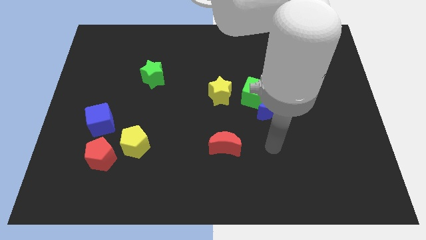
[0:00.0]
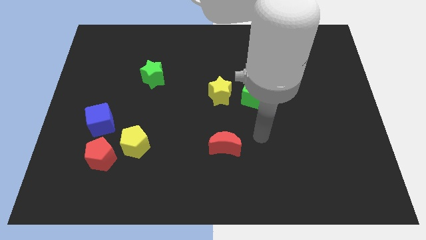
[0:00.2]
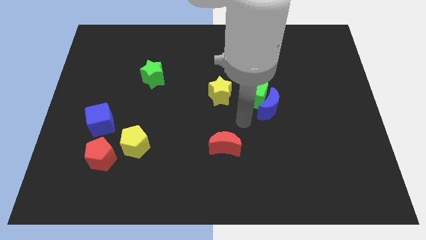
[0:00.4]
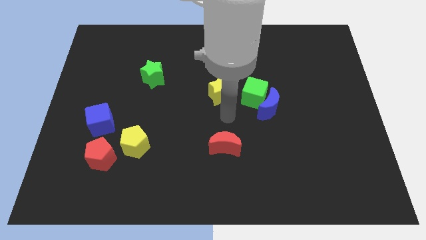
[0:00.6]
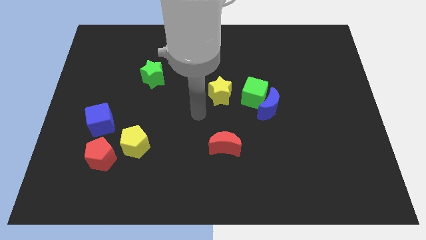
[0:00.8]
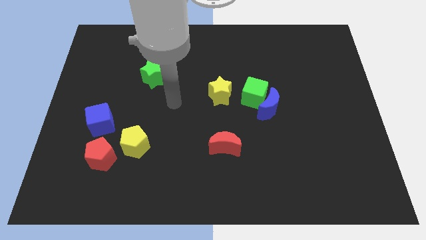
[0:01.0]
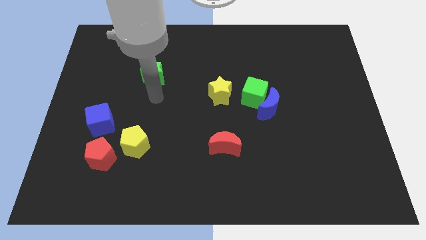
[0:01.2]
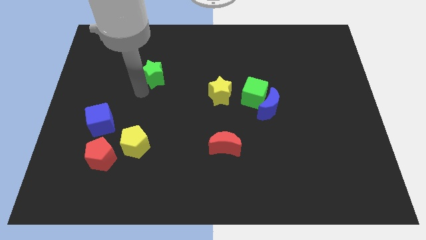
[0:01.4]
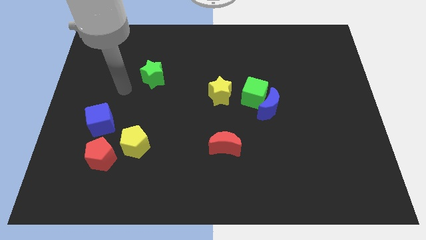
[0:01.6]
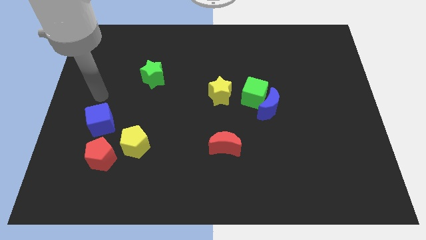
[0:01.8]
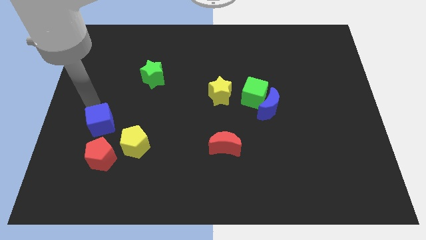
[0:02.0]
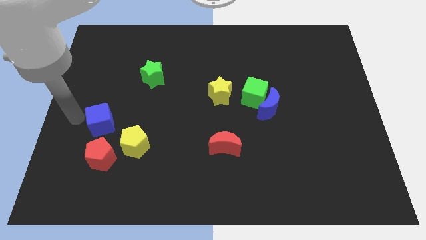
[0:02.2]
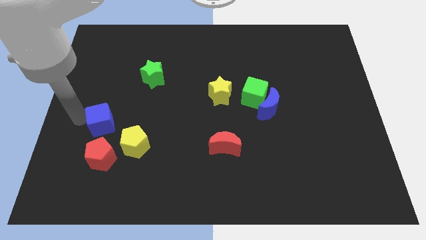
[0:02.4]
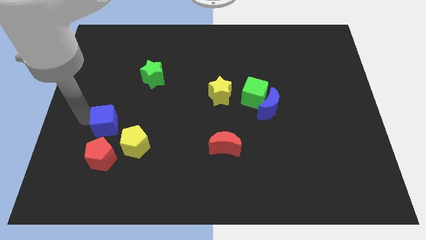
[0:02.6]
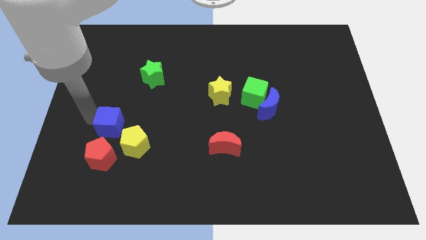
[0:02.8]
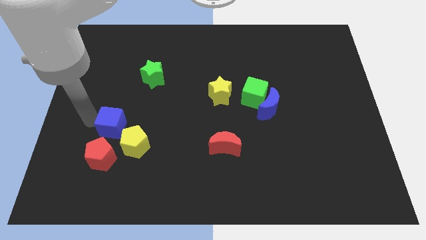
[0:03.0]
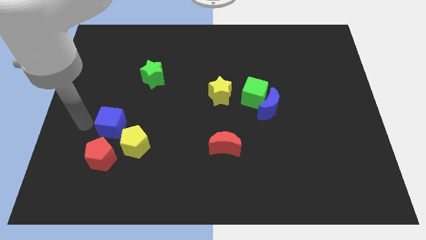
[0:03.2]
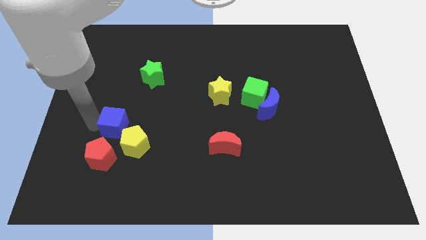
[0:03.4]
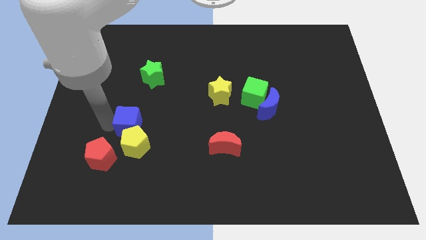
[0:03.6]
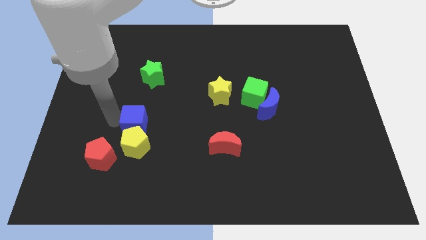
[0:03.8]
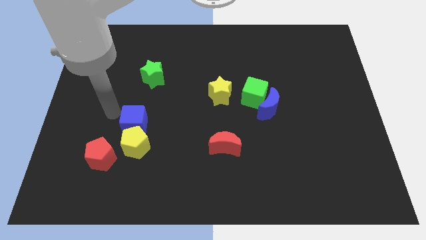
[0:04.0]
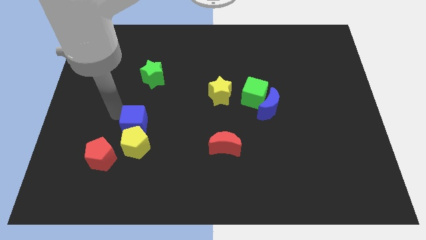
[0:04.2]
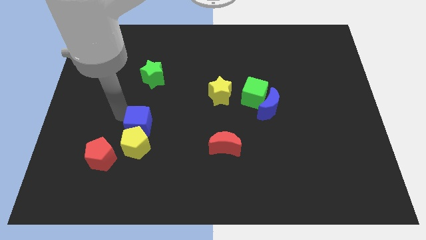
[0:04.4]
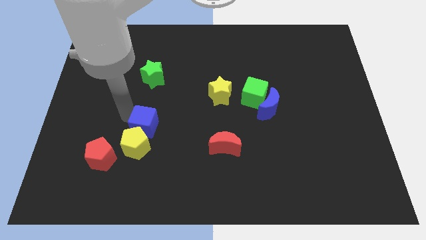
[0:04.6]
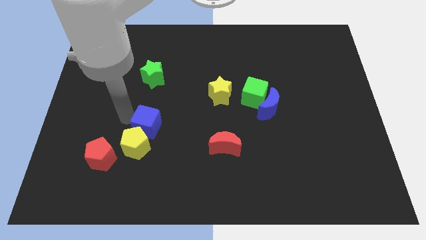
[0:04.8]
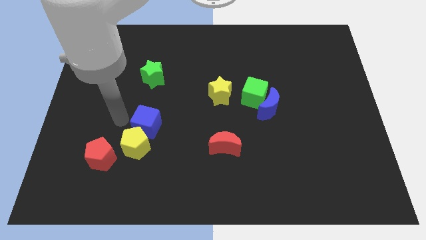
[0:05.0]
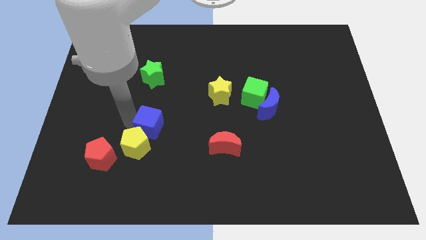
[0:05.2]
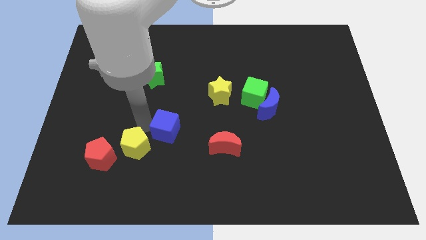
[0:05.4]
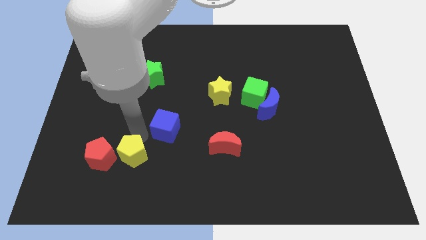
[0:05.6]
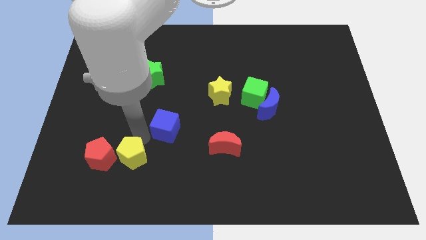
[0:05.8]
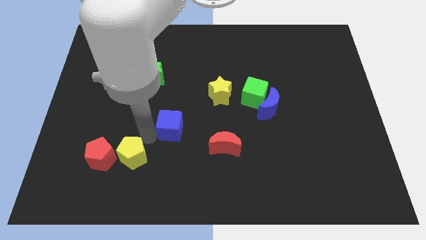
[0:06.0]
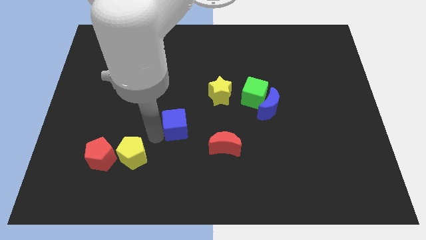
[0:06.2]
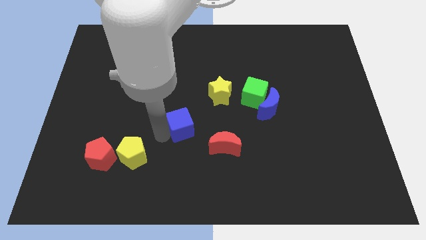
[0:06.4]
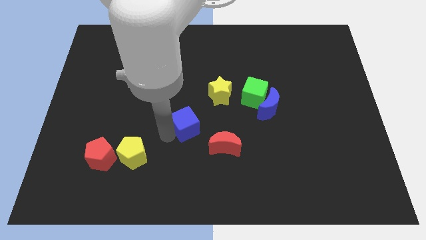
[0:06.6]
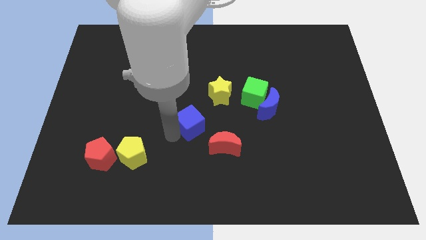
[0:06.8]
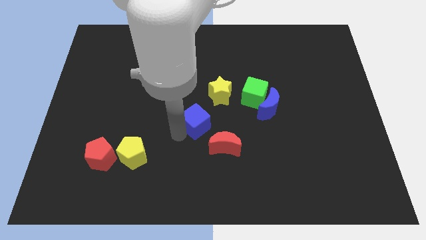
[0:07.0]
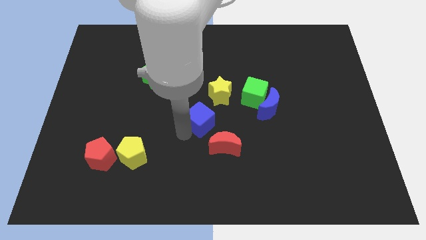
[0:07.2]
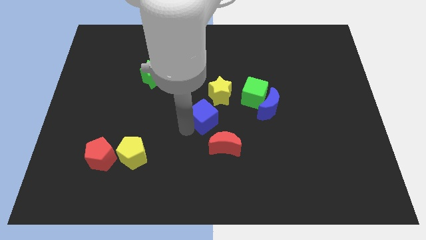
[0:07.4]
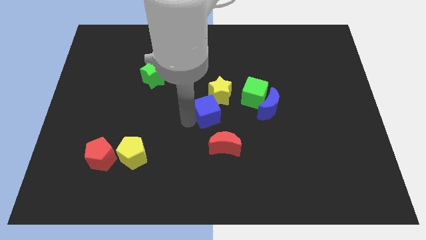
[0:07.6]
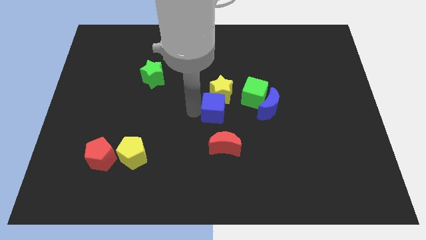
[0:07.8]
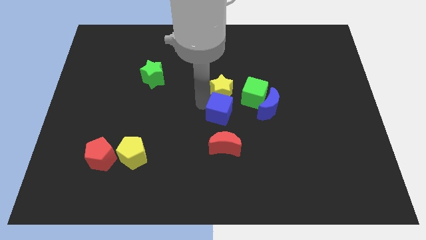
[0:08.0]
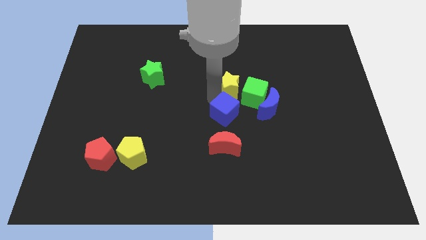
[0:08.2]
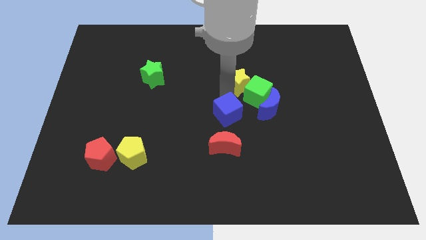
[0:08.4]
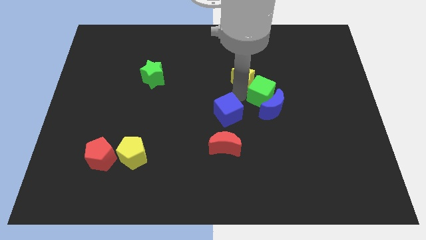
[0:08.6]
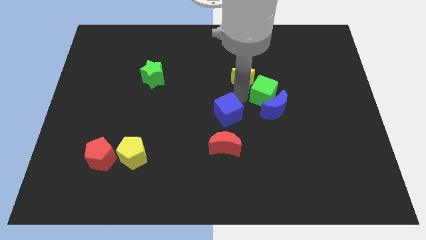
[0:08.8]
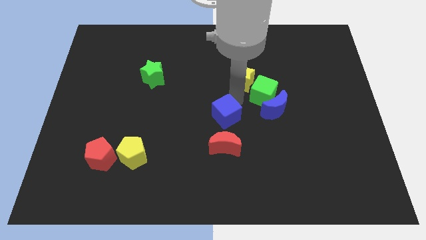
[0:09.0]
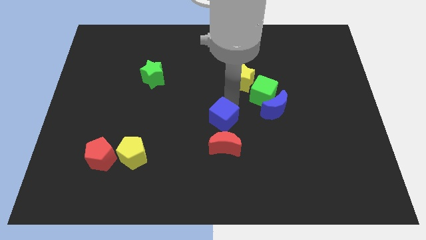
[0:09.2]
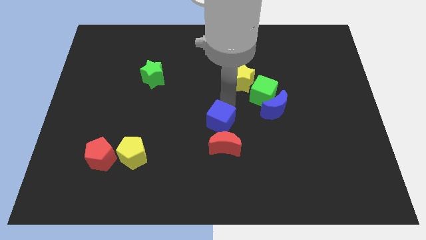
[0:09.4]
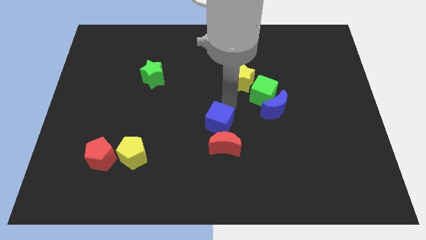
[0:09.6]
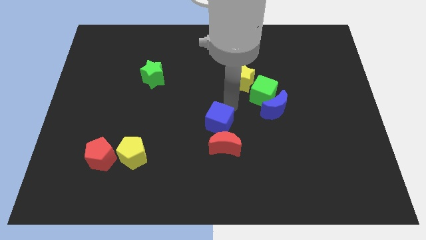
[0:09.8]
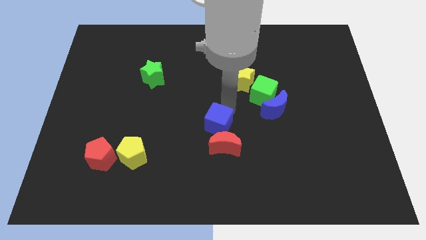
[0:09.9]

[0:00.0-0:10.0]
slide the blue cube towards the red moon

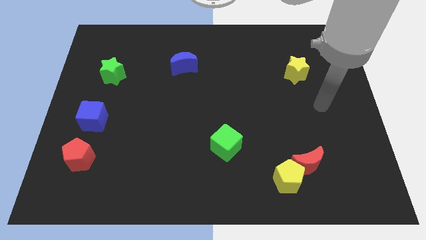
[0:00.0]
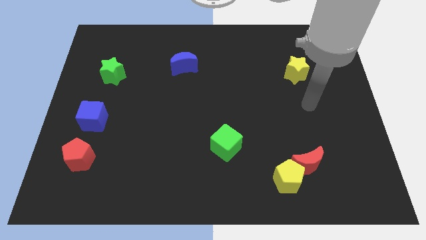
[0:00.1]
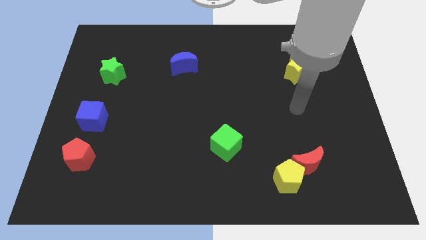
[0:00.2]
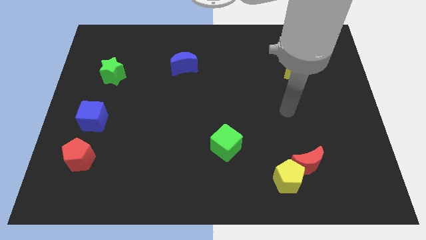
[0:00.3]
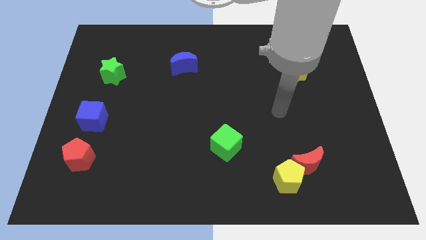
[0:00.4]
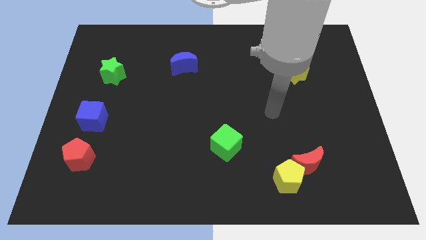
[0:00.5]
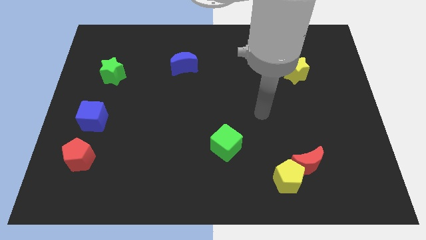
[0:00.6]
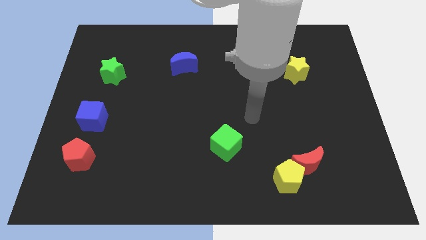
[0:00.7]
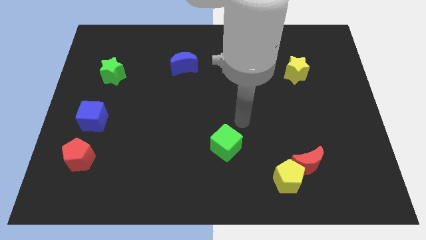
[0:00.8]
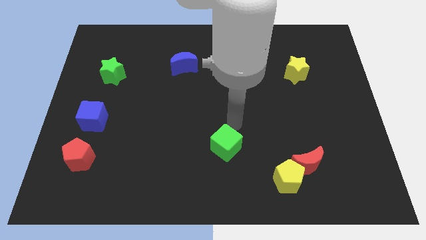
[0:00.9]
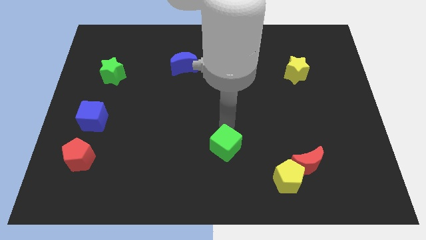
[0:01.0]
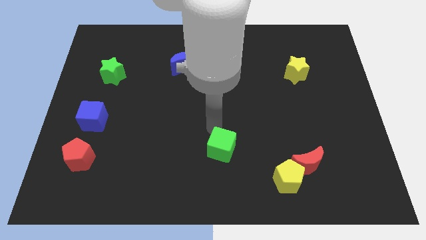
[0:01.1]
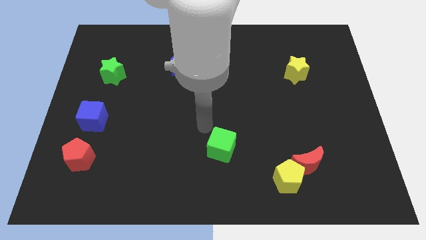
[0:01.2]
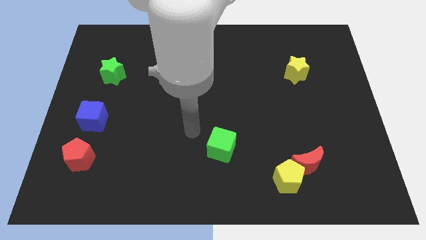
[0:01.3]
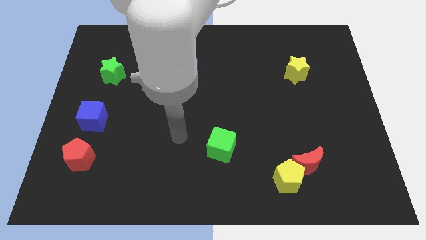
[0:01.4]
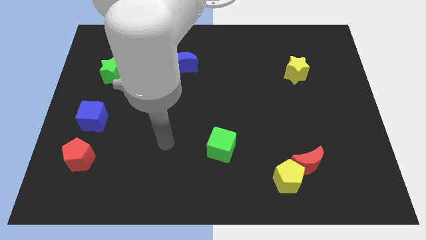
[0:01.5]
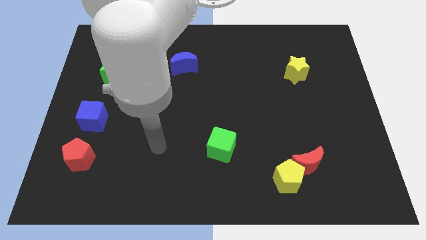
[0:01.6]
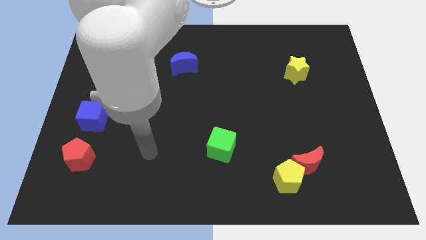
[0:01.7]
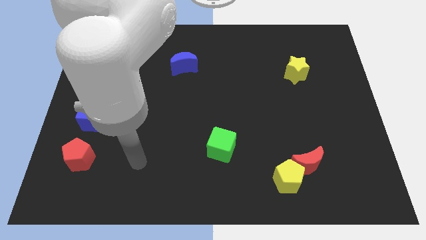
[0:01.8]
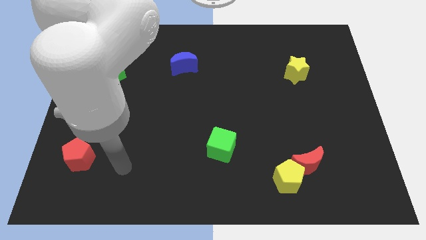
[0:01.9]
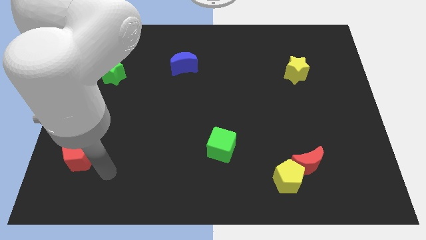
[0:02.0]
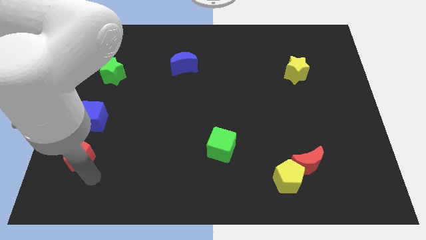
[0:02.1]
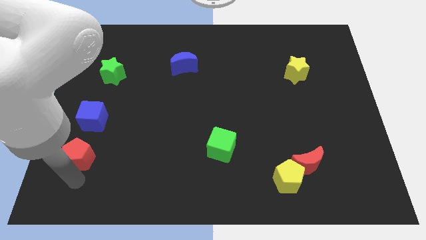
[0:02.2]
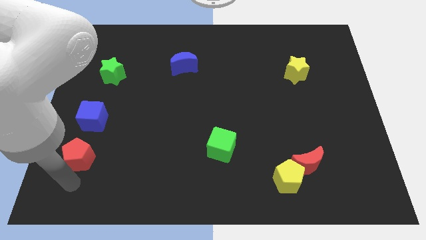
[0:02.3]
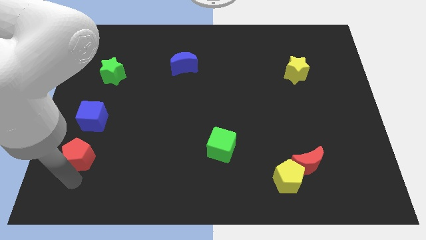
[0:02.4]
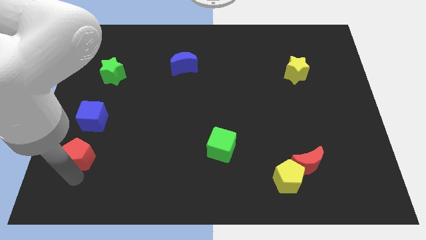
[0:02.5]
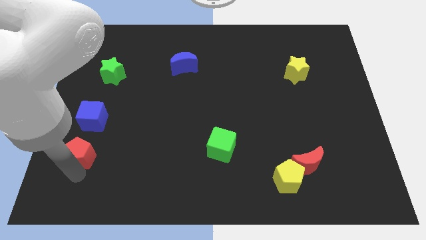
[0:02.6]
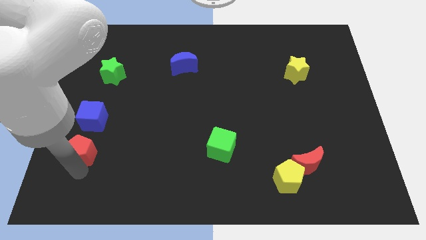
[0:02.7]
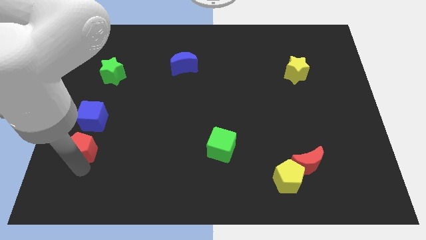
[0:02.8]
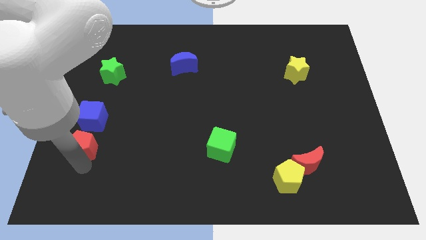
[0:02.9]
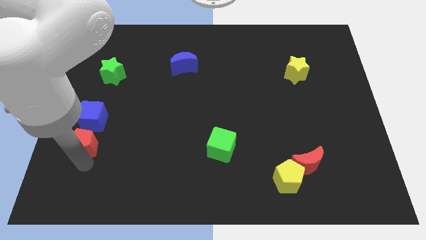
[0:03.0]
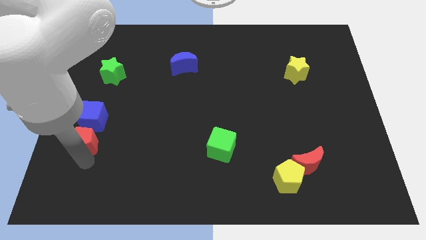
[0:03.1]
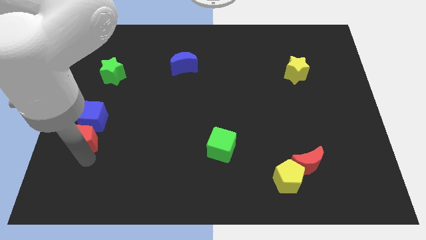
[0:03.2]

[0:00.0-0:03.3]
slide the red pentagon to the blue cube
